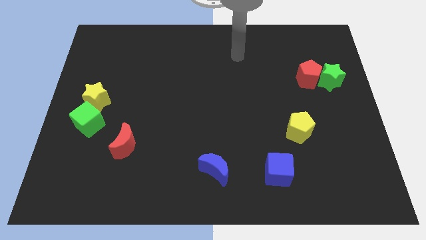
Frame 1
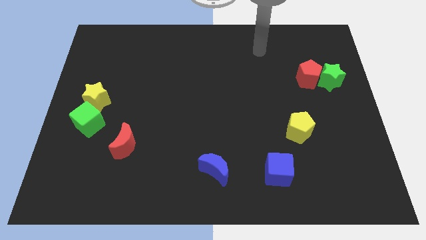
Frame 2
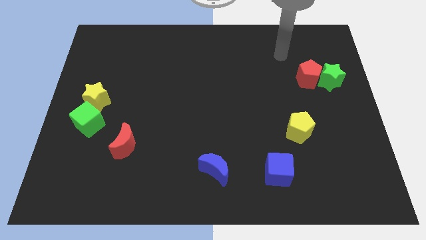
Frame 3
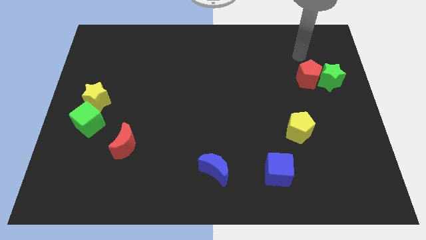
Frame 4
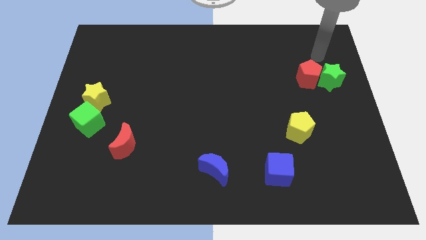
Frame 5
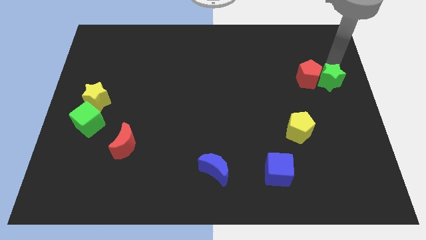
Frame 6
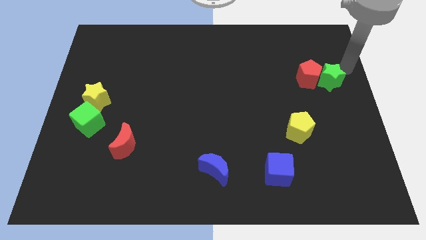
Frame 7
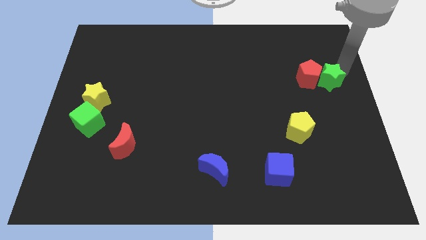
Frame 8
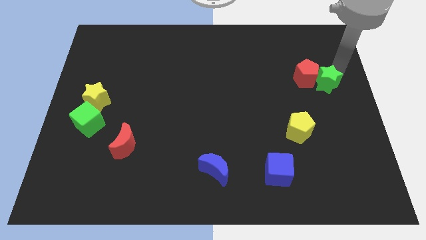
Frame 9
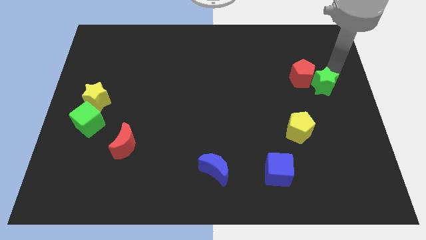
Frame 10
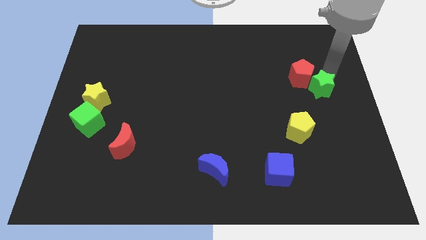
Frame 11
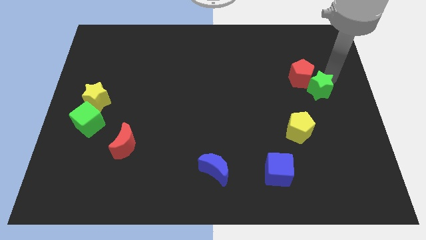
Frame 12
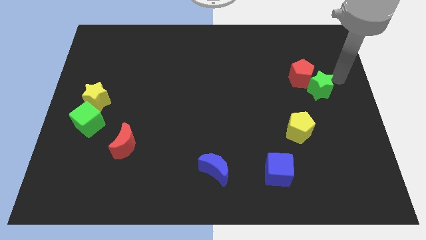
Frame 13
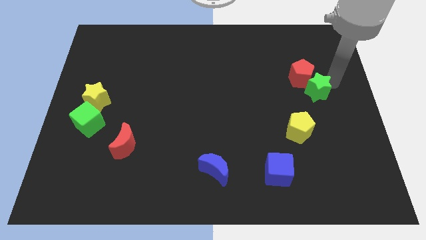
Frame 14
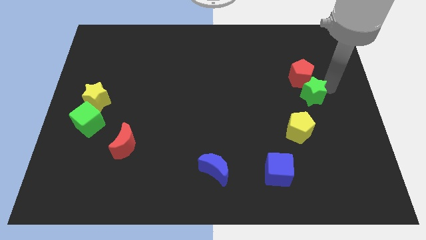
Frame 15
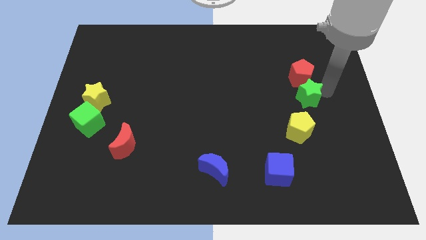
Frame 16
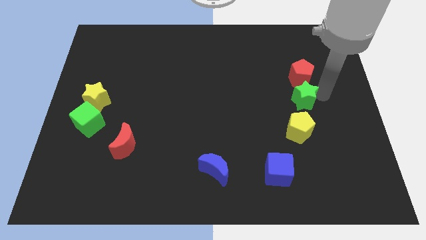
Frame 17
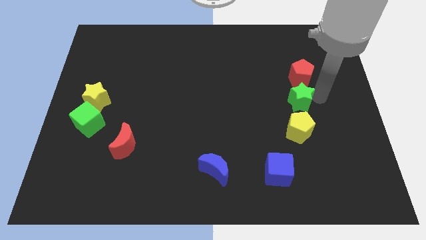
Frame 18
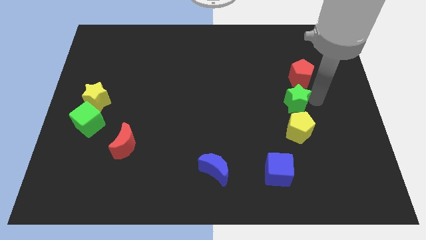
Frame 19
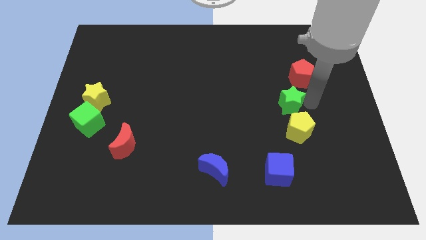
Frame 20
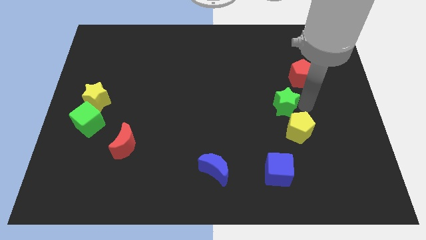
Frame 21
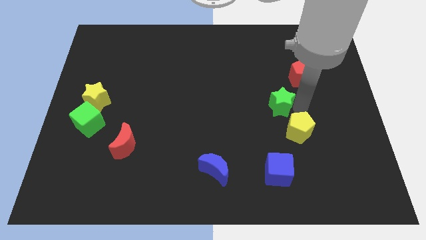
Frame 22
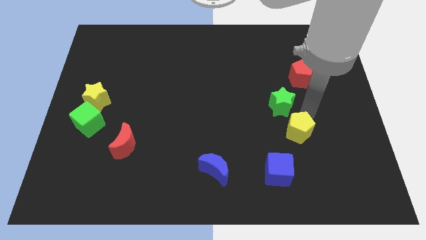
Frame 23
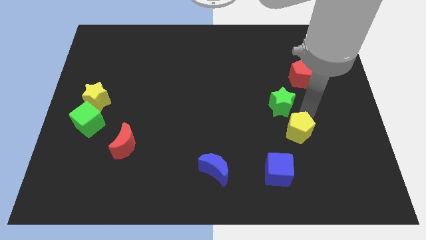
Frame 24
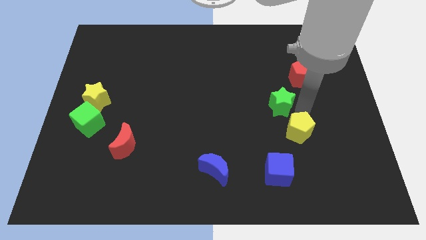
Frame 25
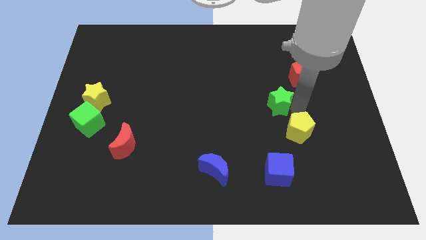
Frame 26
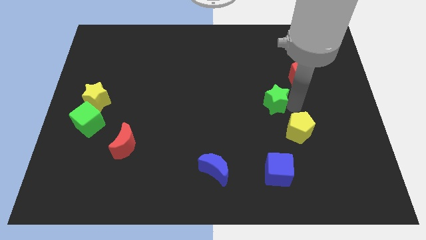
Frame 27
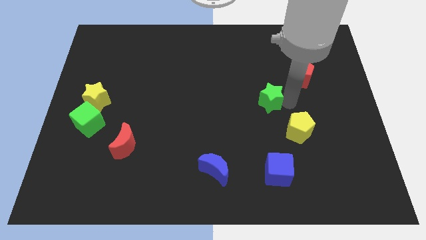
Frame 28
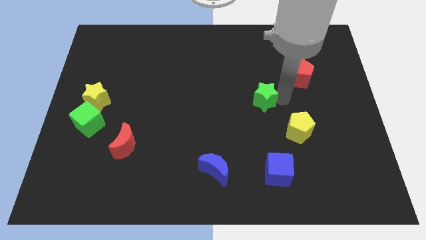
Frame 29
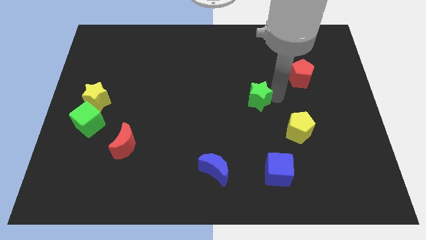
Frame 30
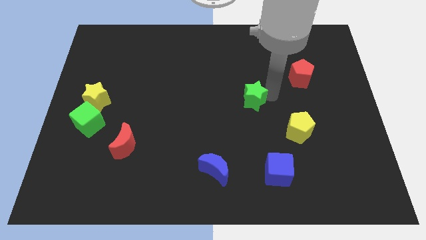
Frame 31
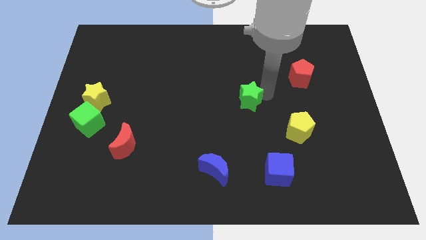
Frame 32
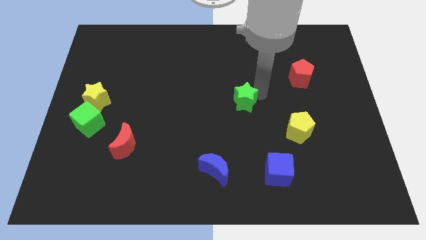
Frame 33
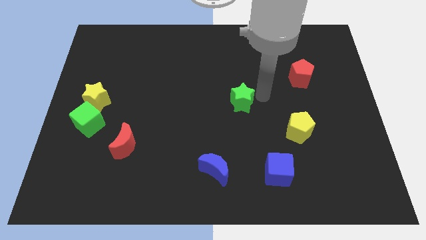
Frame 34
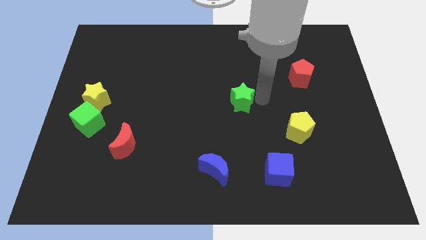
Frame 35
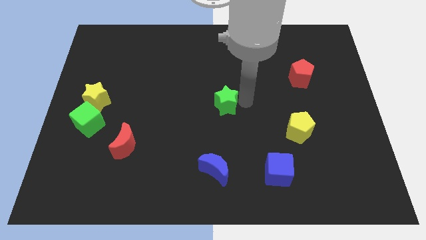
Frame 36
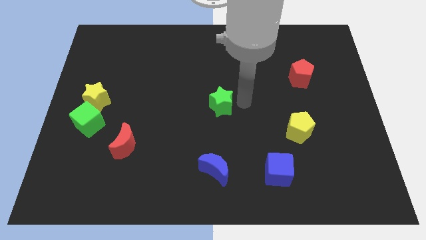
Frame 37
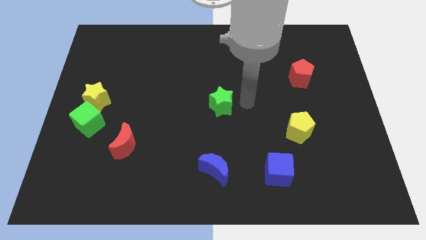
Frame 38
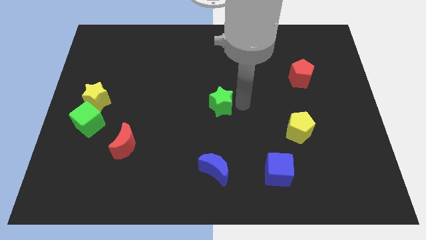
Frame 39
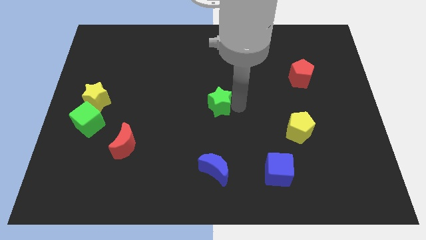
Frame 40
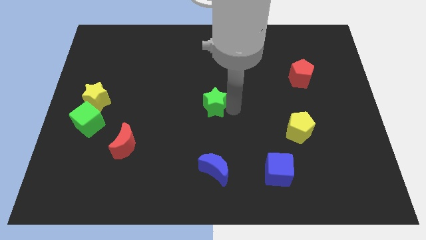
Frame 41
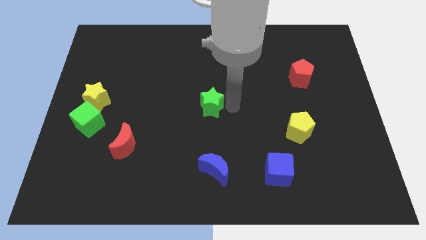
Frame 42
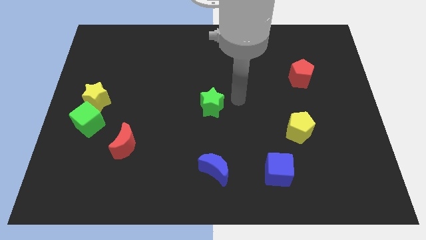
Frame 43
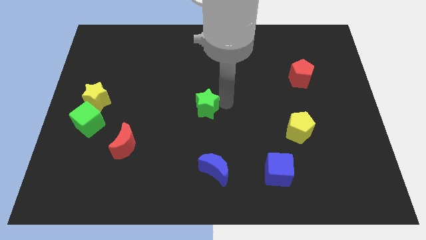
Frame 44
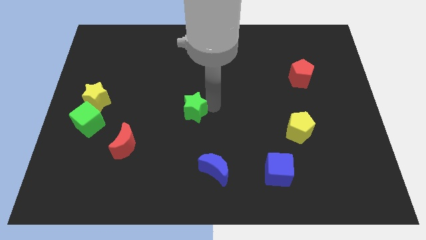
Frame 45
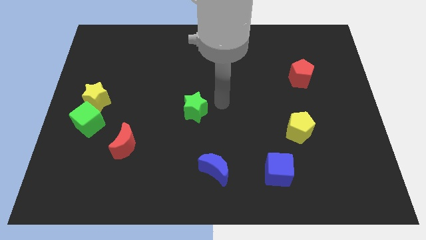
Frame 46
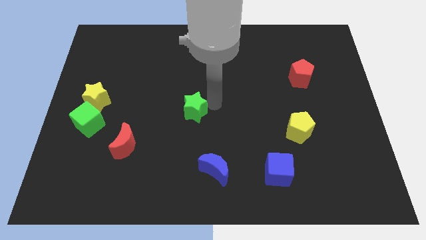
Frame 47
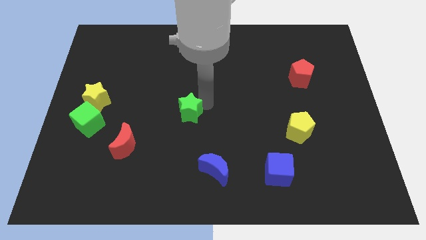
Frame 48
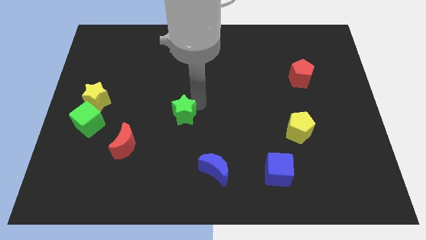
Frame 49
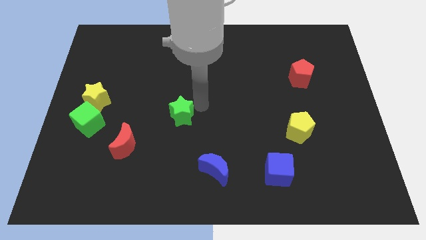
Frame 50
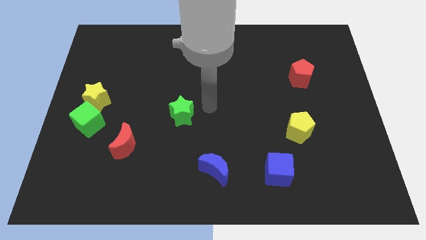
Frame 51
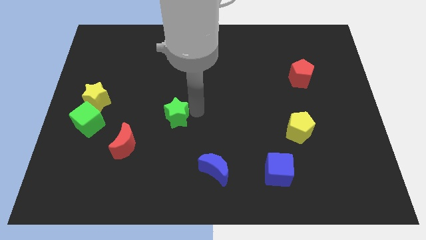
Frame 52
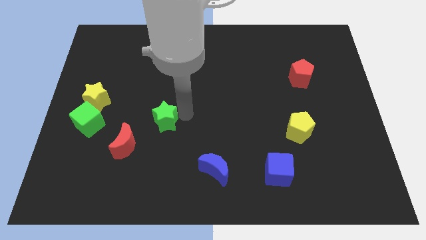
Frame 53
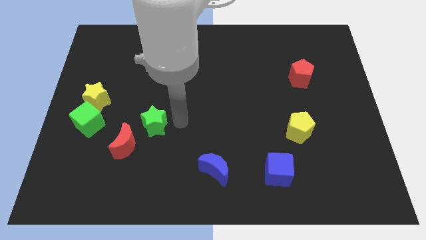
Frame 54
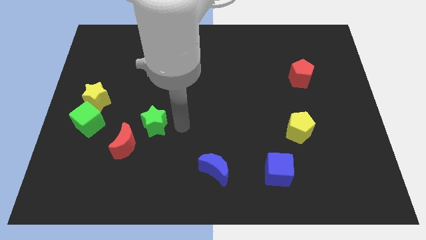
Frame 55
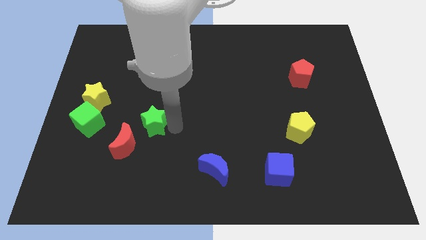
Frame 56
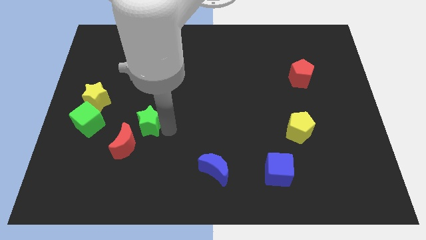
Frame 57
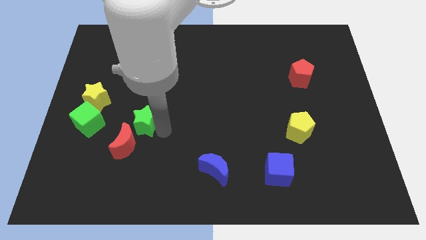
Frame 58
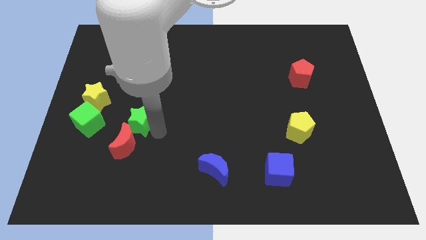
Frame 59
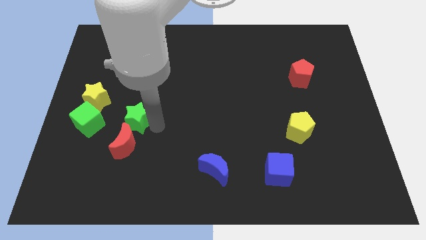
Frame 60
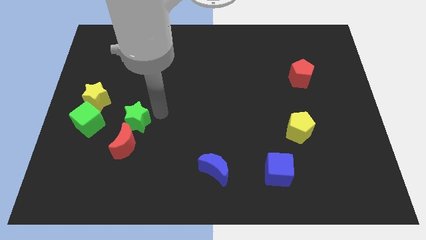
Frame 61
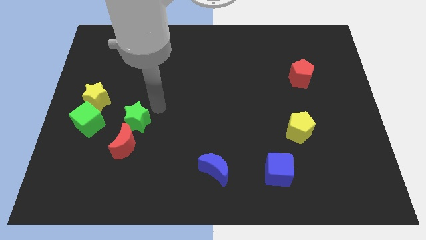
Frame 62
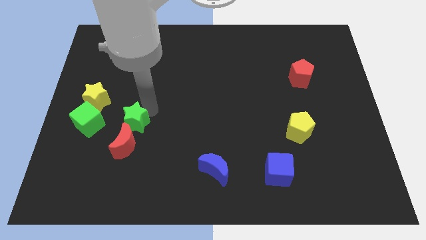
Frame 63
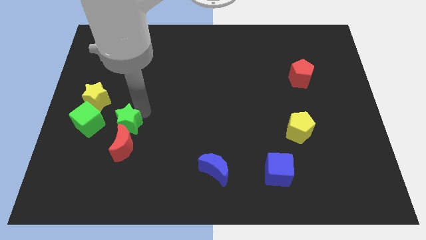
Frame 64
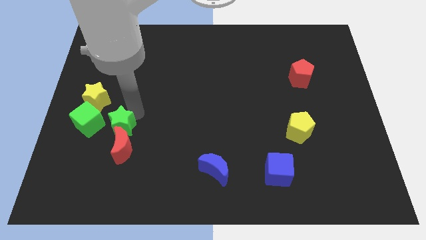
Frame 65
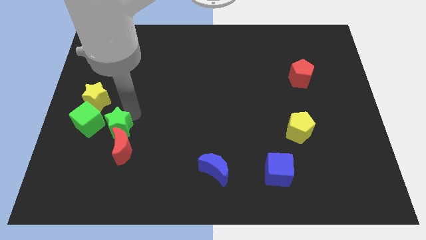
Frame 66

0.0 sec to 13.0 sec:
move the green star diagonally down and to the right of the green cube

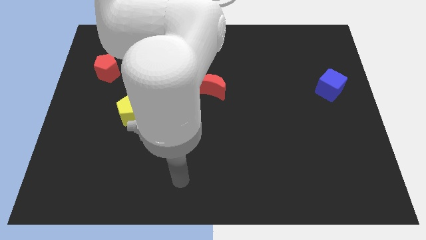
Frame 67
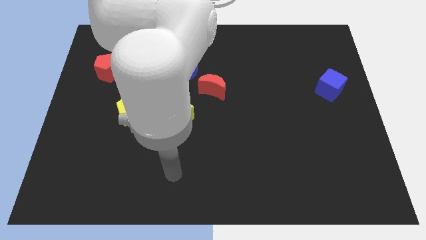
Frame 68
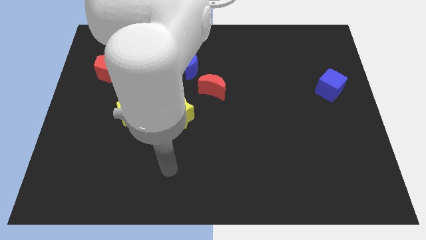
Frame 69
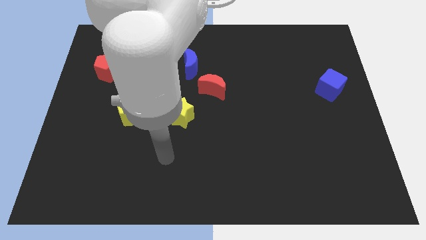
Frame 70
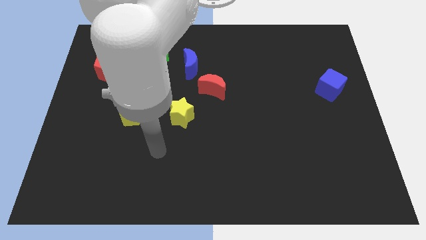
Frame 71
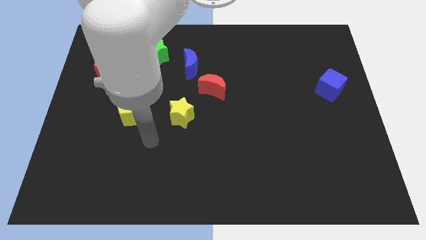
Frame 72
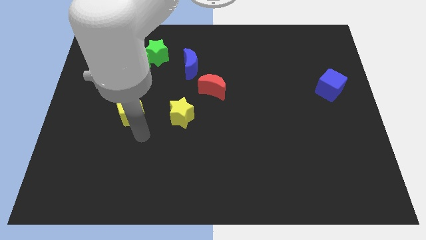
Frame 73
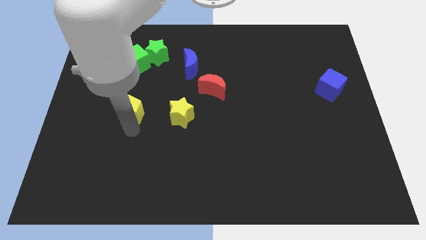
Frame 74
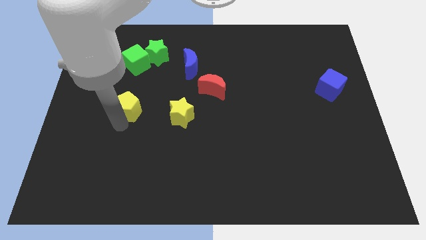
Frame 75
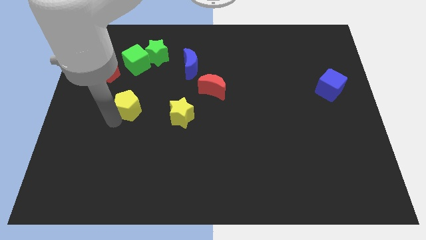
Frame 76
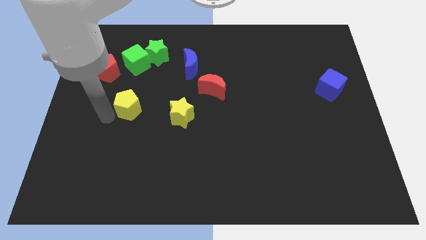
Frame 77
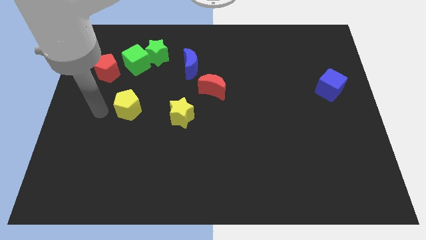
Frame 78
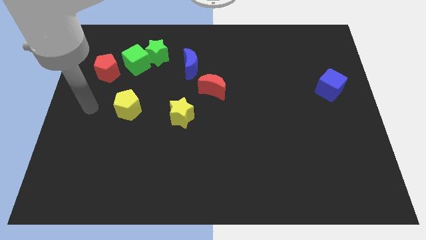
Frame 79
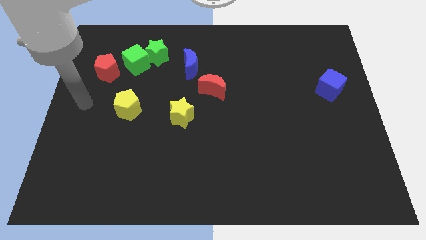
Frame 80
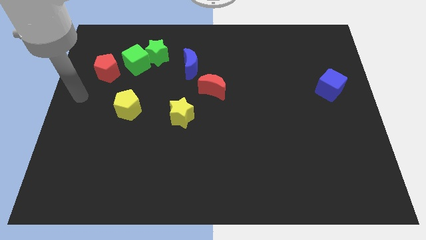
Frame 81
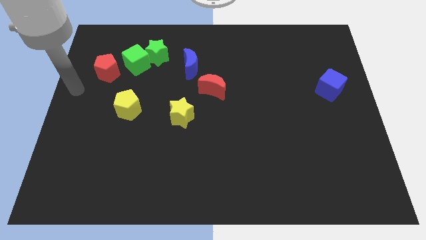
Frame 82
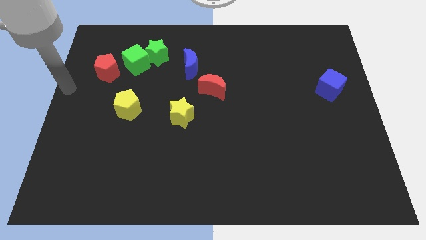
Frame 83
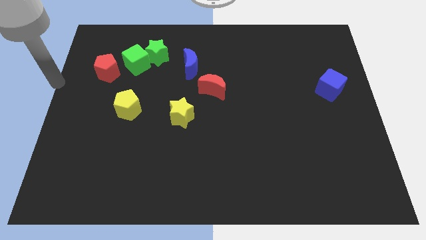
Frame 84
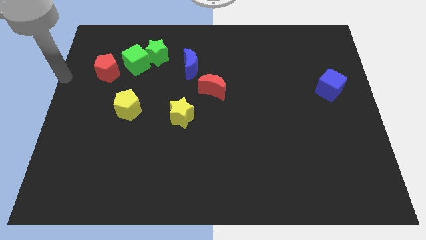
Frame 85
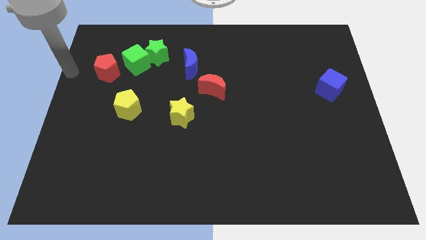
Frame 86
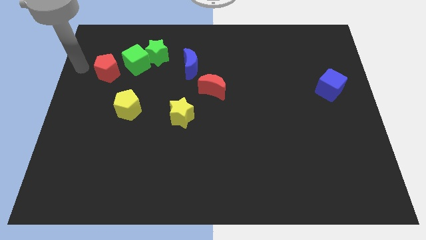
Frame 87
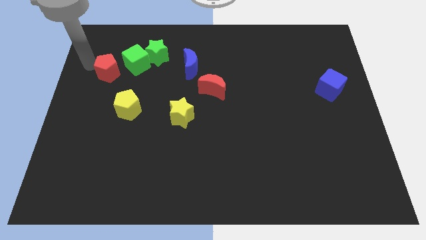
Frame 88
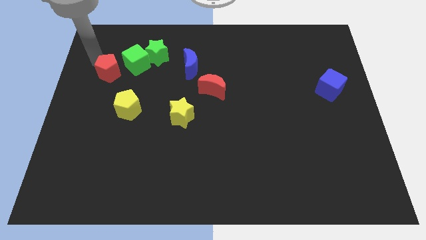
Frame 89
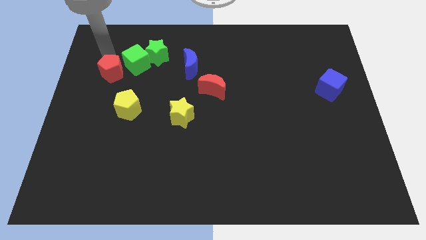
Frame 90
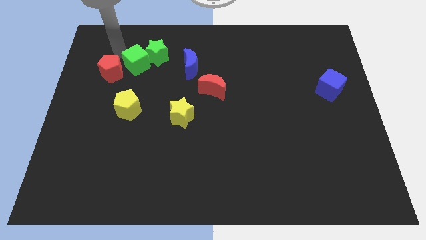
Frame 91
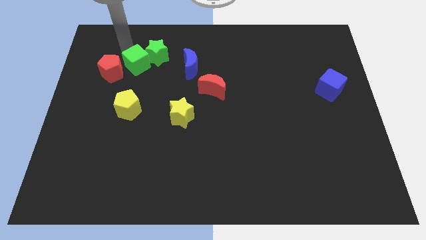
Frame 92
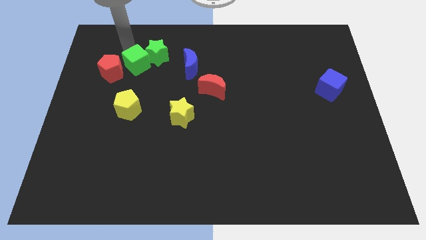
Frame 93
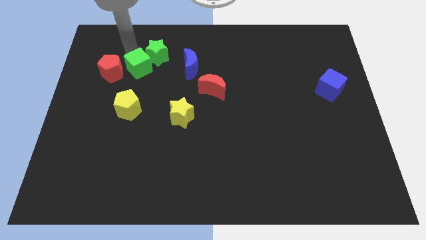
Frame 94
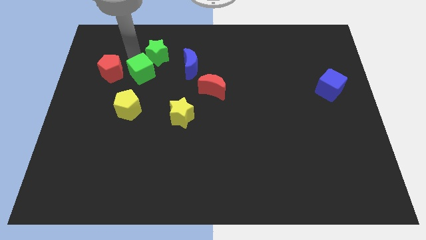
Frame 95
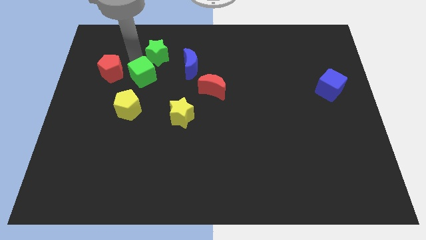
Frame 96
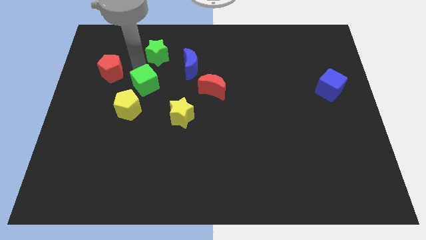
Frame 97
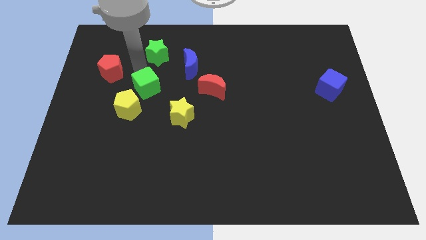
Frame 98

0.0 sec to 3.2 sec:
move the green cube to the top left side of the yellow star
